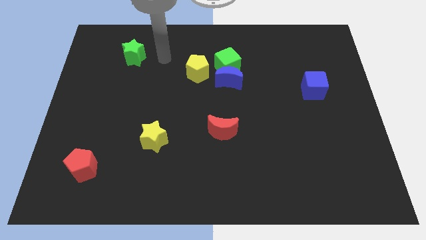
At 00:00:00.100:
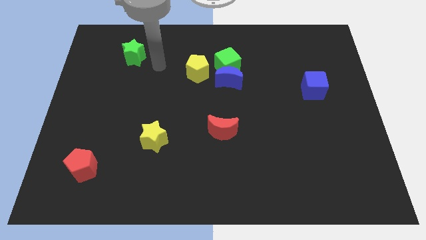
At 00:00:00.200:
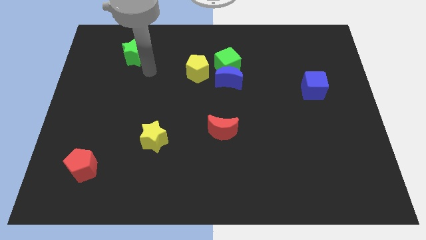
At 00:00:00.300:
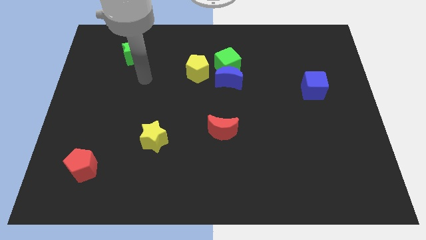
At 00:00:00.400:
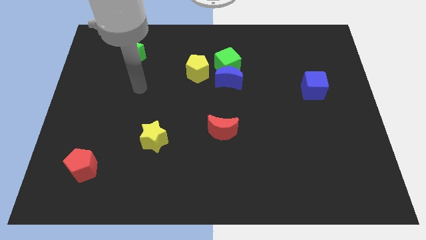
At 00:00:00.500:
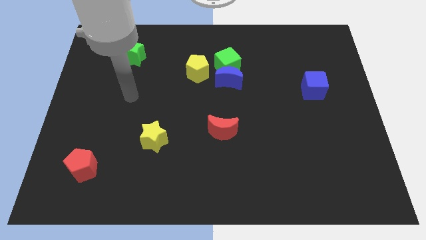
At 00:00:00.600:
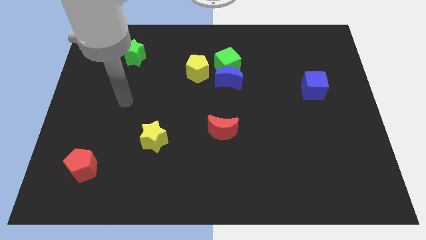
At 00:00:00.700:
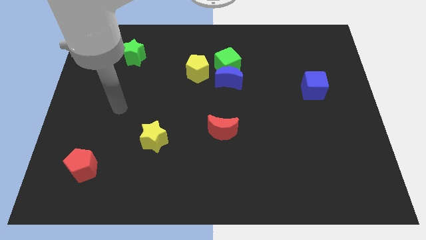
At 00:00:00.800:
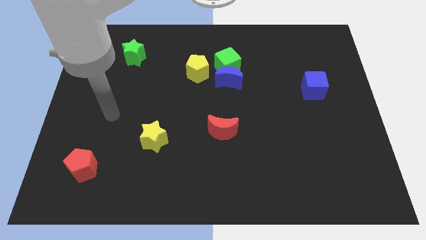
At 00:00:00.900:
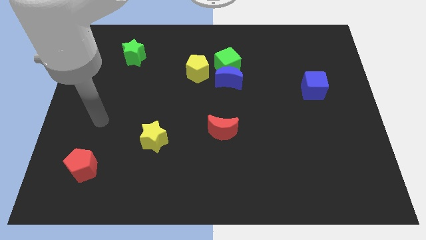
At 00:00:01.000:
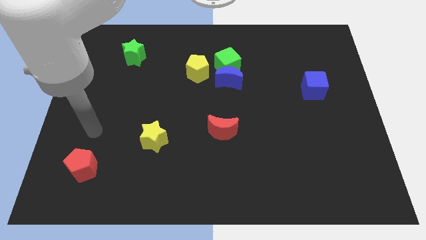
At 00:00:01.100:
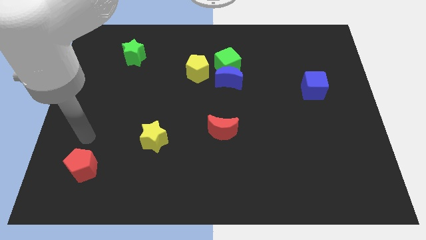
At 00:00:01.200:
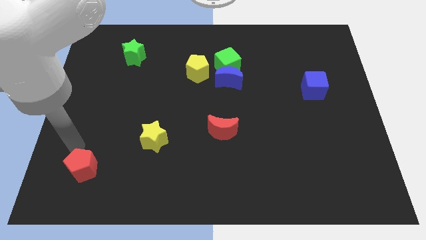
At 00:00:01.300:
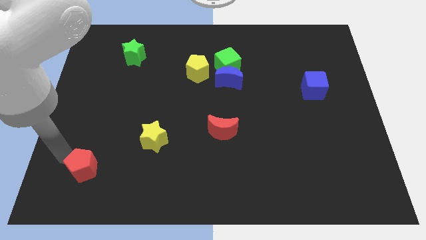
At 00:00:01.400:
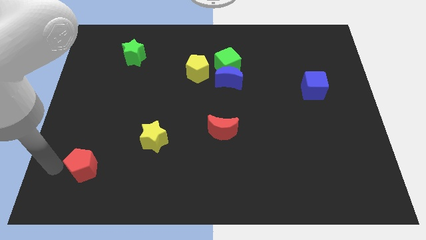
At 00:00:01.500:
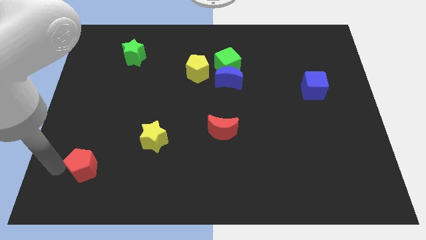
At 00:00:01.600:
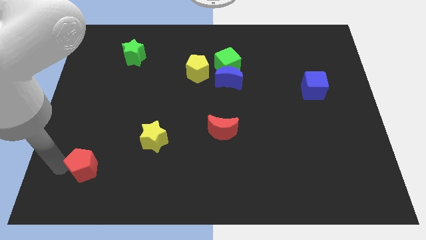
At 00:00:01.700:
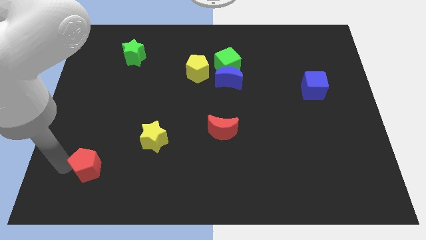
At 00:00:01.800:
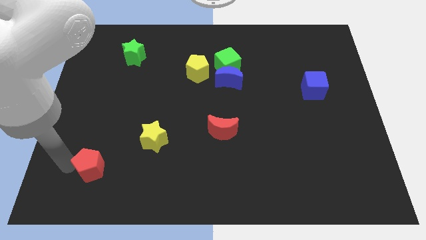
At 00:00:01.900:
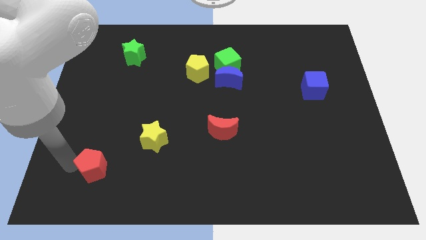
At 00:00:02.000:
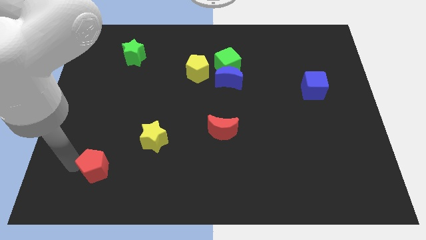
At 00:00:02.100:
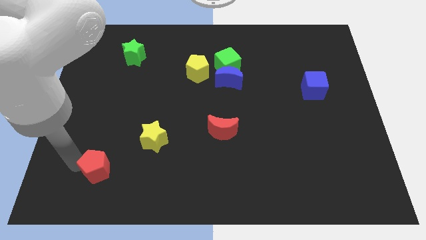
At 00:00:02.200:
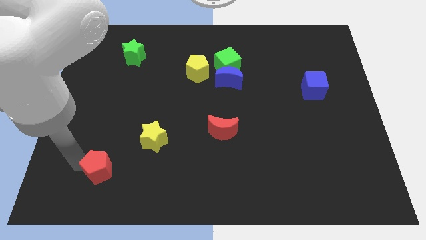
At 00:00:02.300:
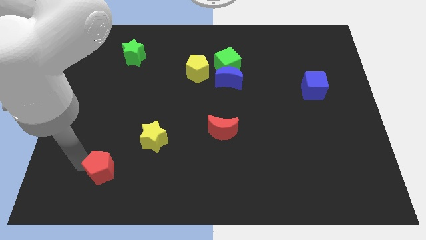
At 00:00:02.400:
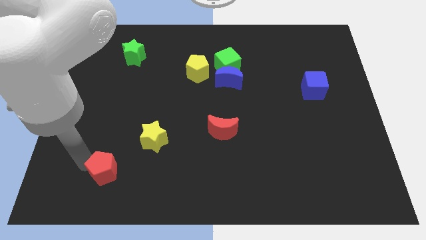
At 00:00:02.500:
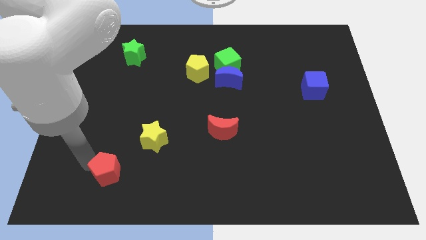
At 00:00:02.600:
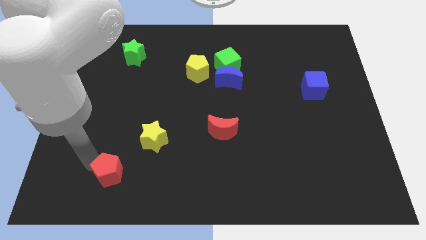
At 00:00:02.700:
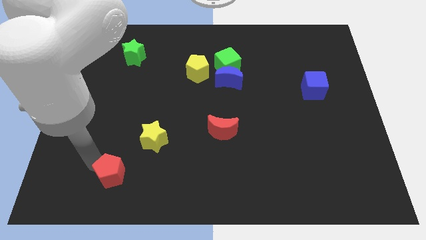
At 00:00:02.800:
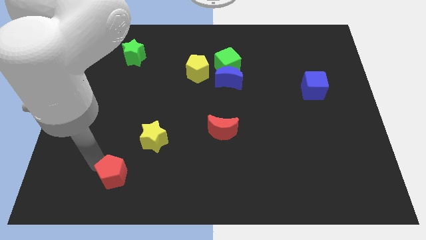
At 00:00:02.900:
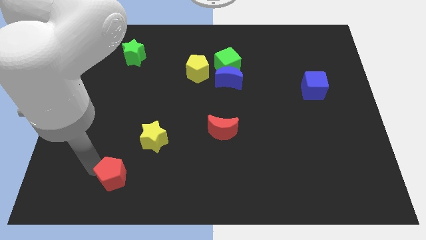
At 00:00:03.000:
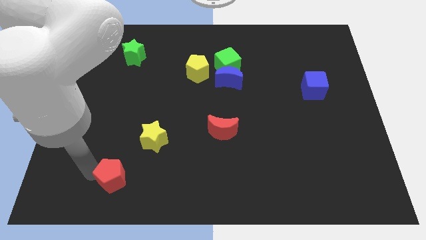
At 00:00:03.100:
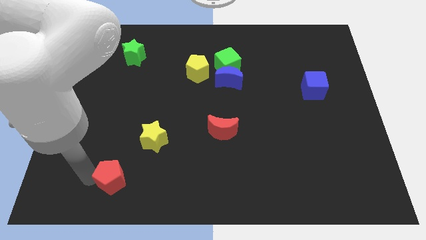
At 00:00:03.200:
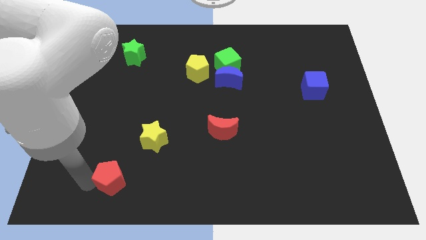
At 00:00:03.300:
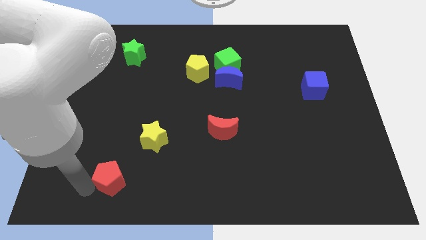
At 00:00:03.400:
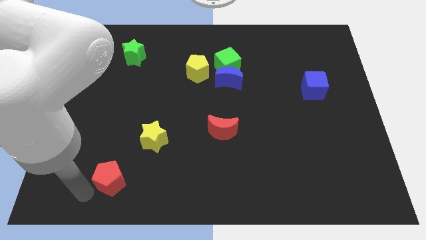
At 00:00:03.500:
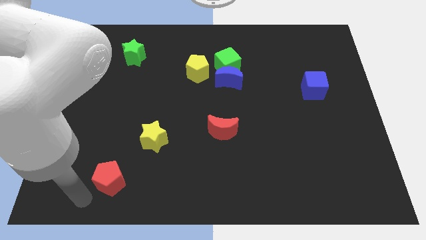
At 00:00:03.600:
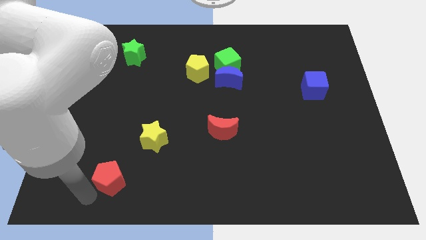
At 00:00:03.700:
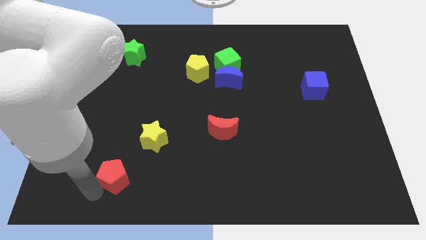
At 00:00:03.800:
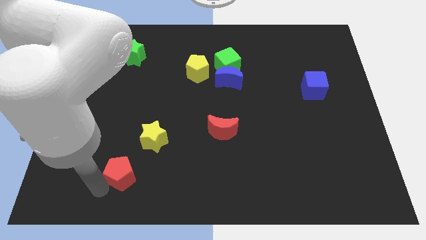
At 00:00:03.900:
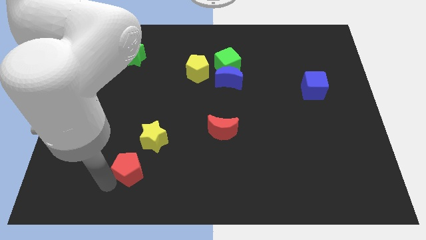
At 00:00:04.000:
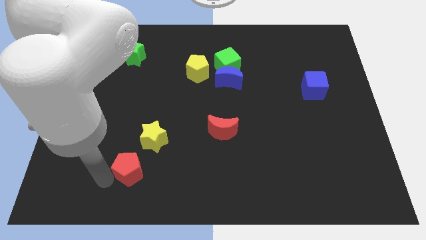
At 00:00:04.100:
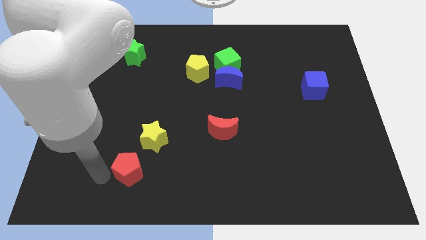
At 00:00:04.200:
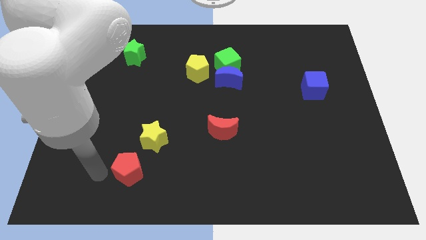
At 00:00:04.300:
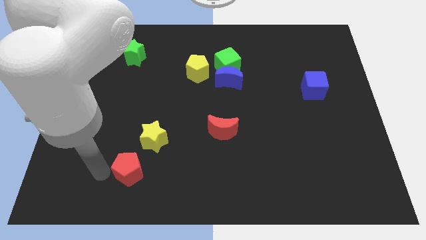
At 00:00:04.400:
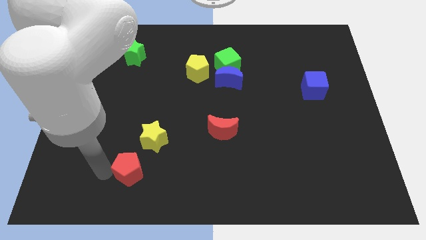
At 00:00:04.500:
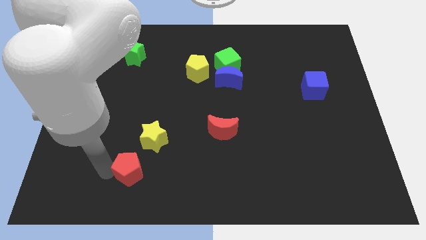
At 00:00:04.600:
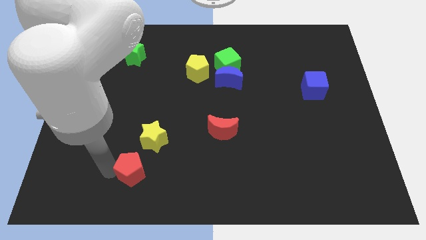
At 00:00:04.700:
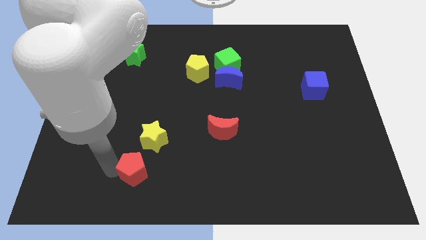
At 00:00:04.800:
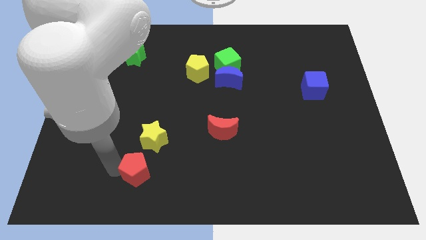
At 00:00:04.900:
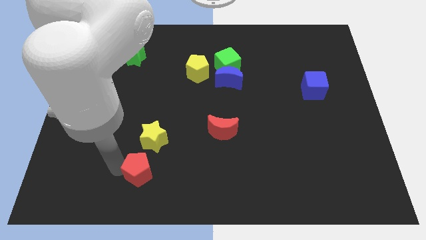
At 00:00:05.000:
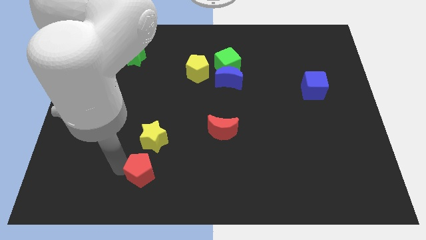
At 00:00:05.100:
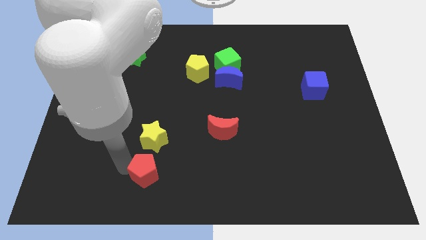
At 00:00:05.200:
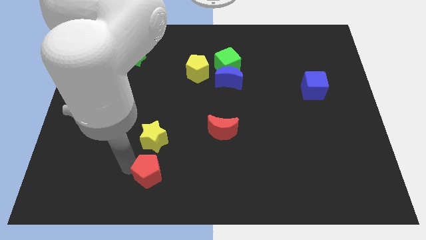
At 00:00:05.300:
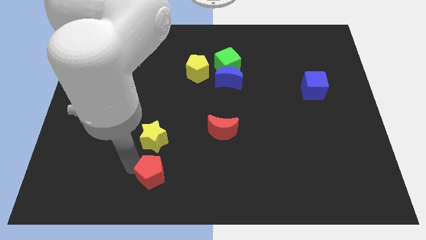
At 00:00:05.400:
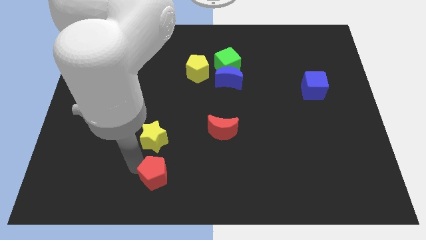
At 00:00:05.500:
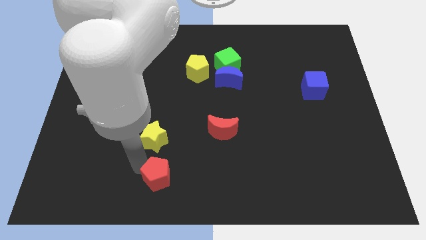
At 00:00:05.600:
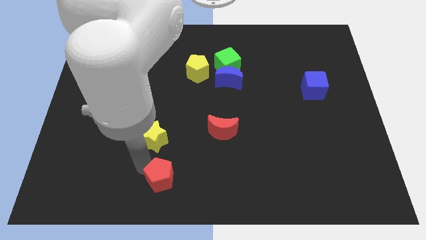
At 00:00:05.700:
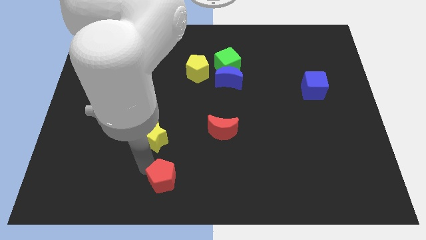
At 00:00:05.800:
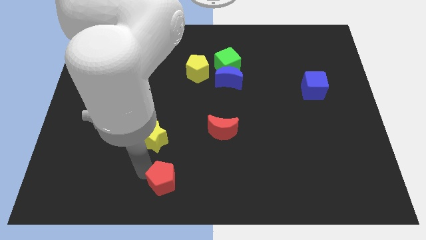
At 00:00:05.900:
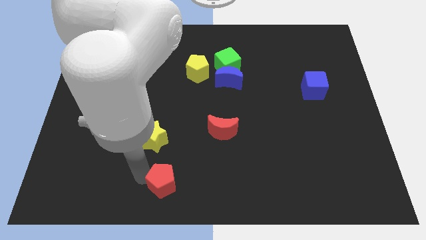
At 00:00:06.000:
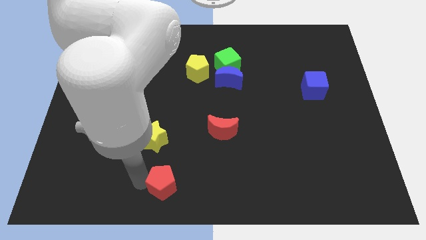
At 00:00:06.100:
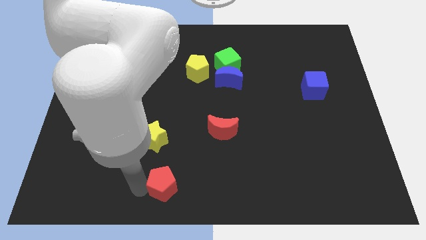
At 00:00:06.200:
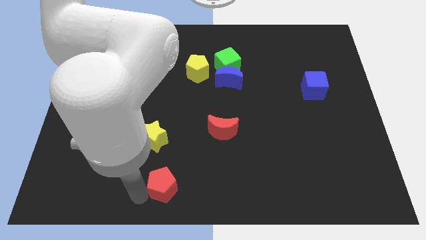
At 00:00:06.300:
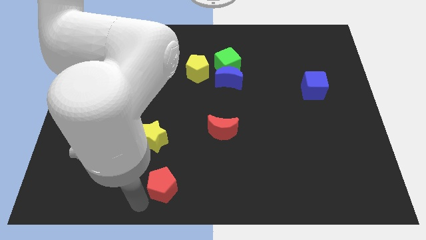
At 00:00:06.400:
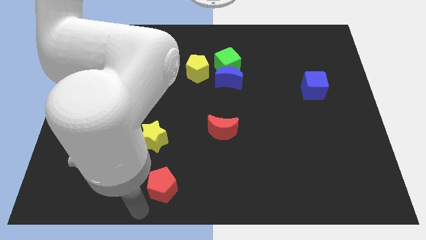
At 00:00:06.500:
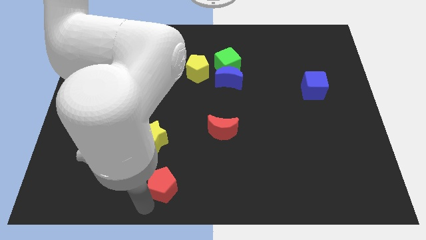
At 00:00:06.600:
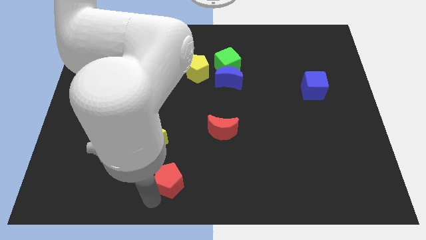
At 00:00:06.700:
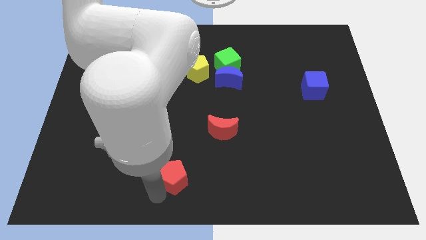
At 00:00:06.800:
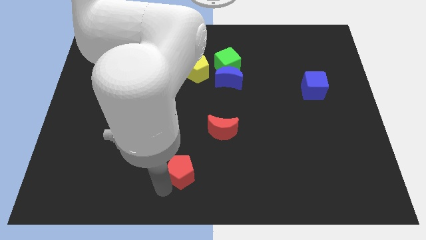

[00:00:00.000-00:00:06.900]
push the red pentagon right

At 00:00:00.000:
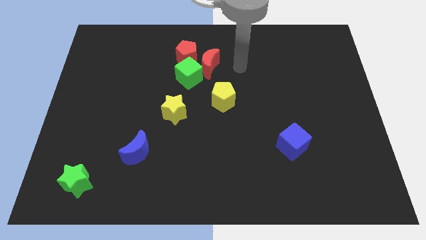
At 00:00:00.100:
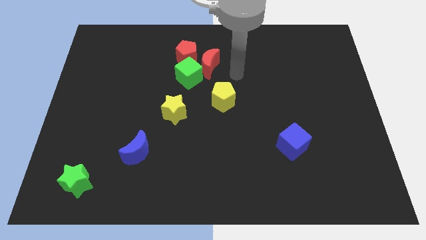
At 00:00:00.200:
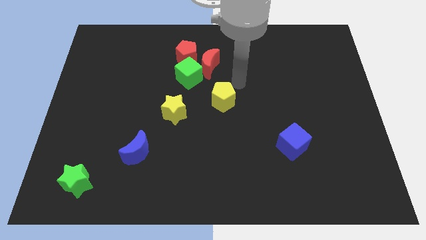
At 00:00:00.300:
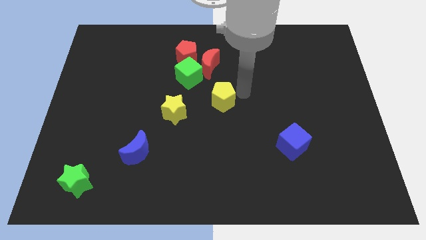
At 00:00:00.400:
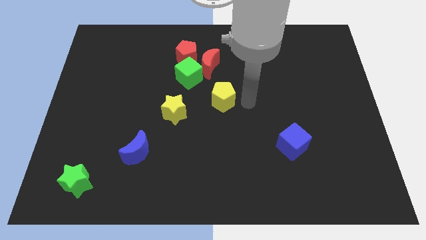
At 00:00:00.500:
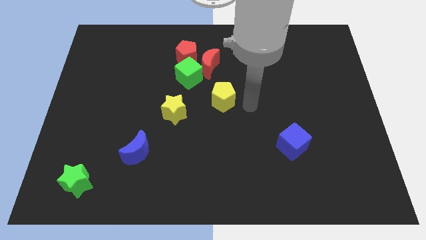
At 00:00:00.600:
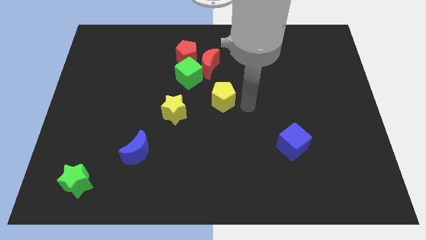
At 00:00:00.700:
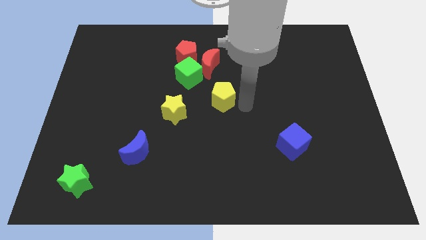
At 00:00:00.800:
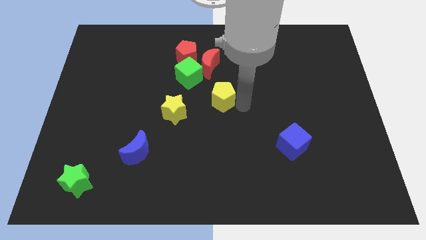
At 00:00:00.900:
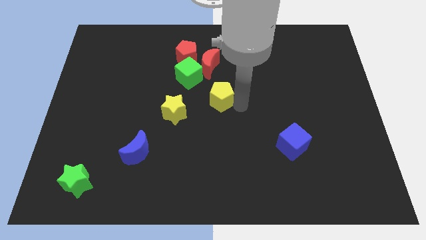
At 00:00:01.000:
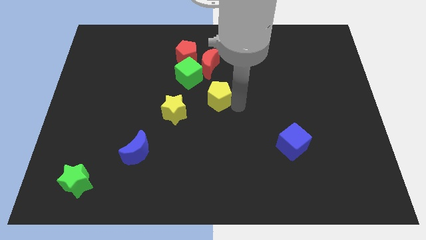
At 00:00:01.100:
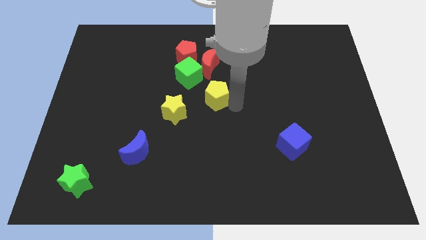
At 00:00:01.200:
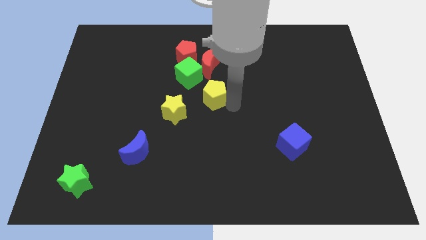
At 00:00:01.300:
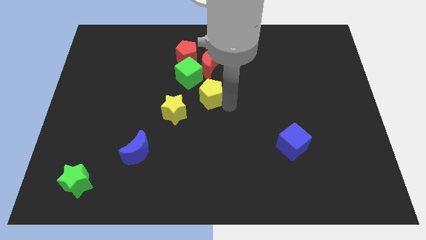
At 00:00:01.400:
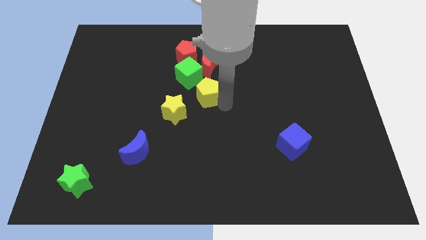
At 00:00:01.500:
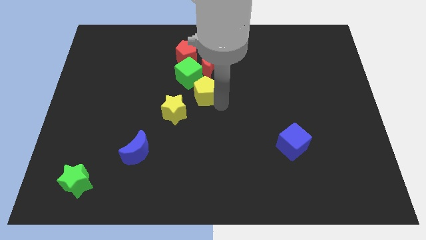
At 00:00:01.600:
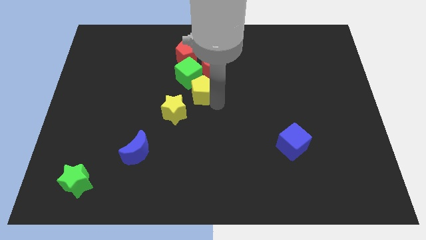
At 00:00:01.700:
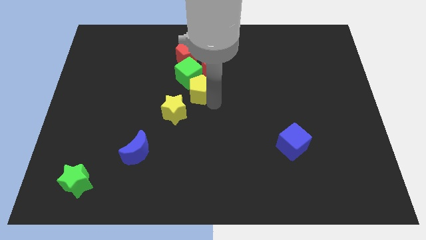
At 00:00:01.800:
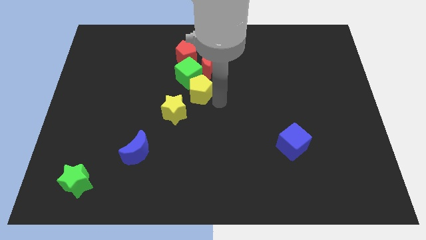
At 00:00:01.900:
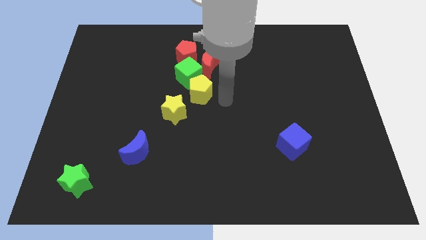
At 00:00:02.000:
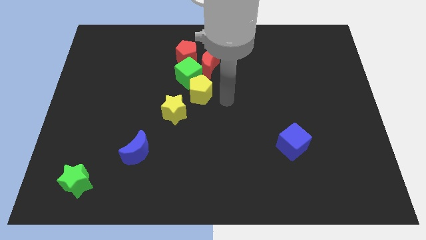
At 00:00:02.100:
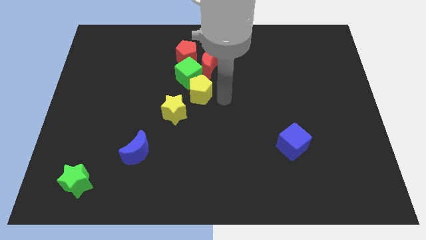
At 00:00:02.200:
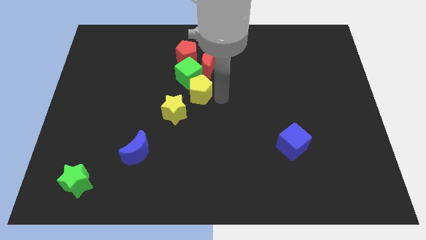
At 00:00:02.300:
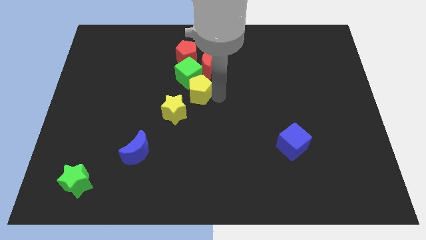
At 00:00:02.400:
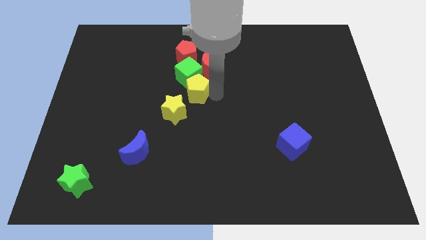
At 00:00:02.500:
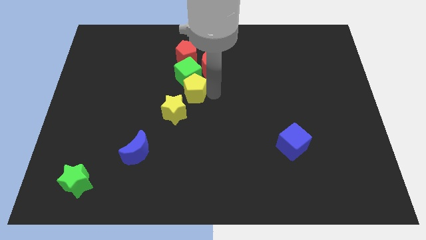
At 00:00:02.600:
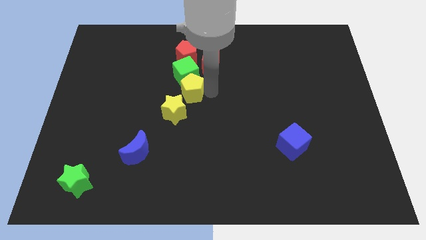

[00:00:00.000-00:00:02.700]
move the yellow pentagon to the left a little
